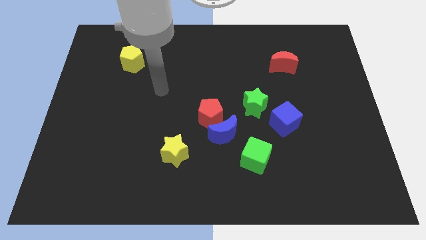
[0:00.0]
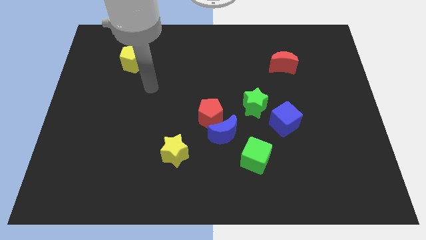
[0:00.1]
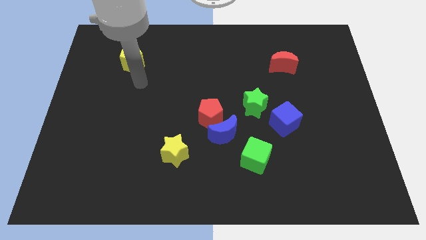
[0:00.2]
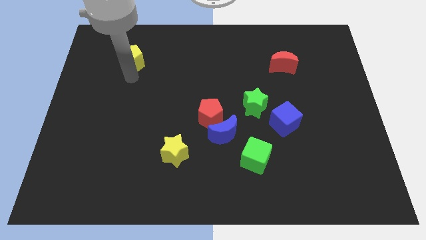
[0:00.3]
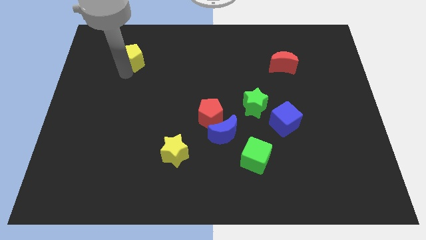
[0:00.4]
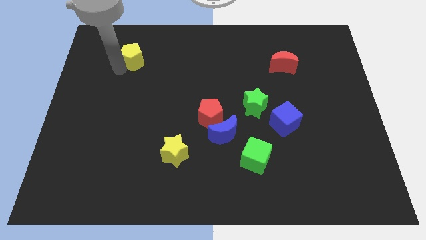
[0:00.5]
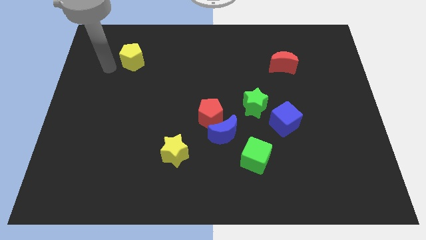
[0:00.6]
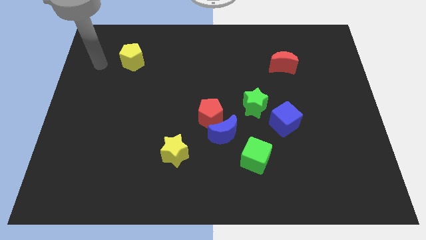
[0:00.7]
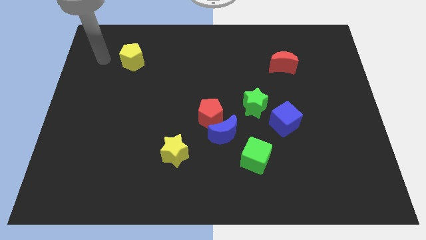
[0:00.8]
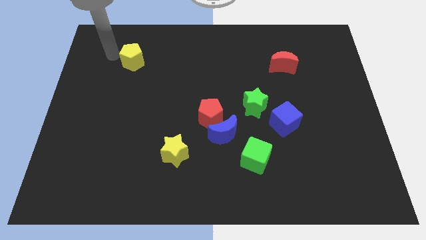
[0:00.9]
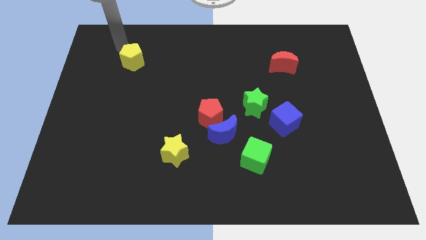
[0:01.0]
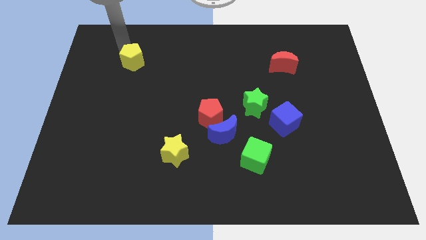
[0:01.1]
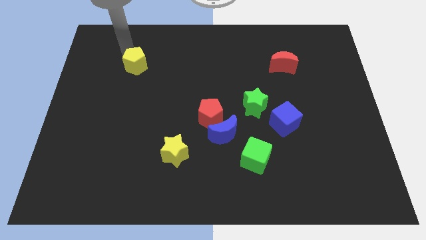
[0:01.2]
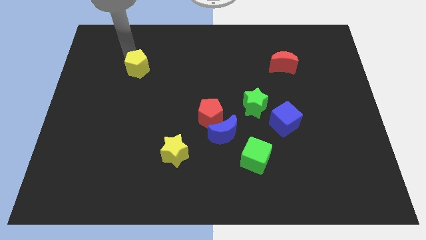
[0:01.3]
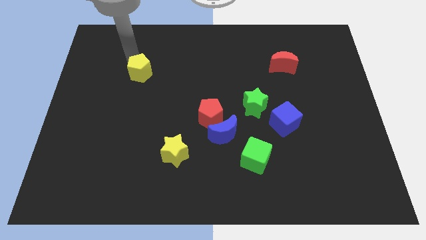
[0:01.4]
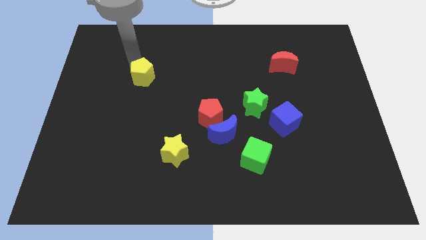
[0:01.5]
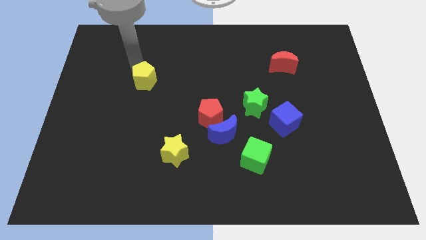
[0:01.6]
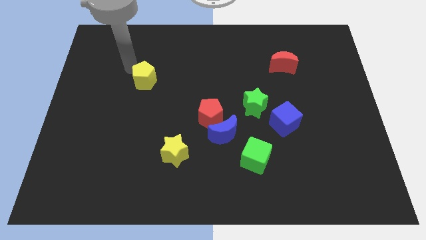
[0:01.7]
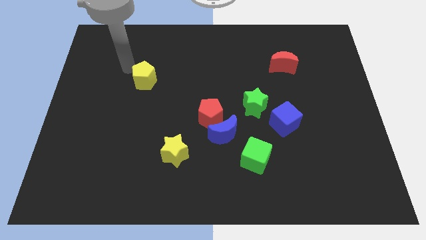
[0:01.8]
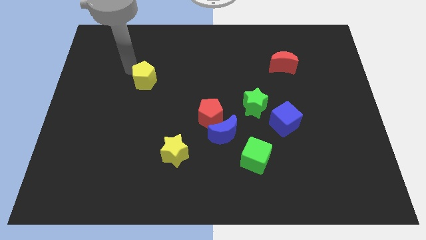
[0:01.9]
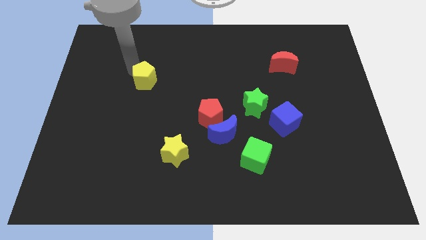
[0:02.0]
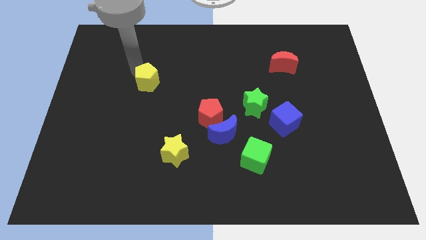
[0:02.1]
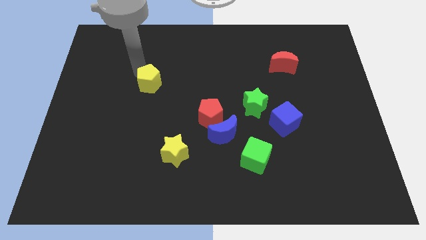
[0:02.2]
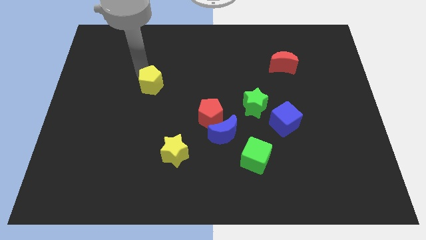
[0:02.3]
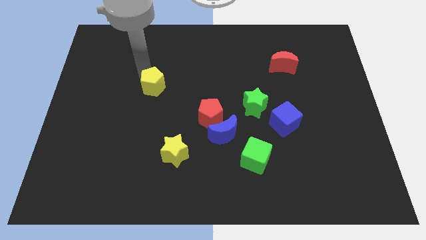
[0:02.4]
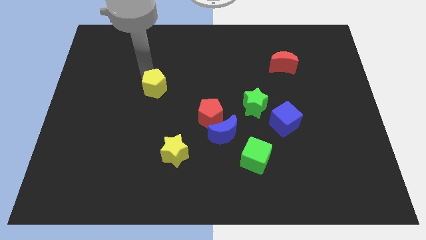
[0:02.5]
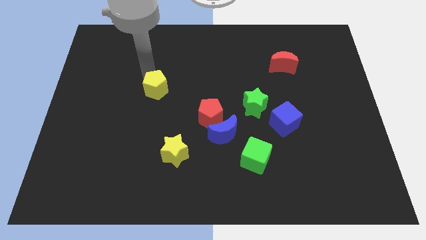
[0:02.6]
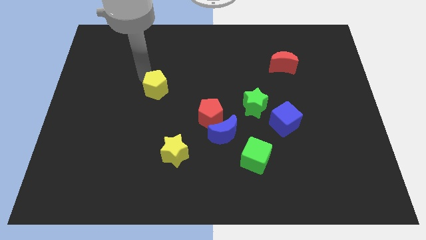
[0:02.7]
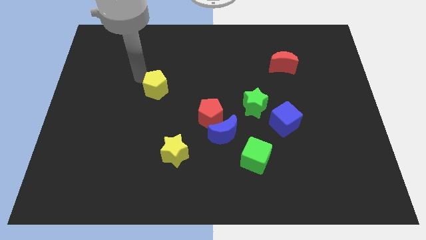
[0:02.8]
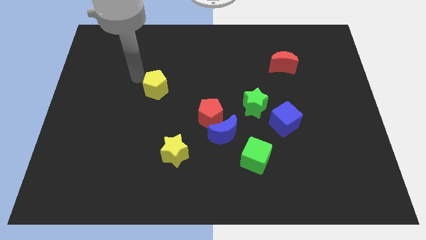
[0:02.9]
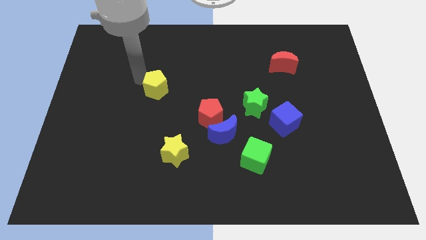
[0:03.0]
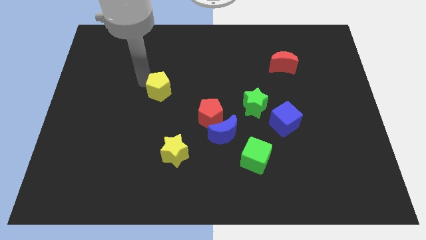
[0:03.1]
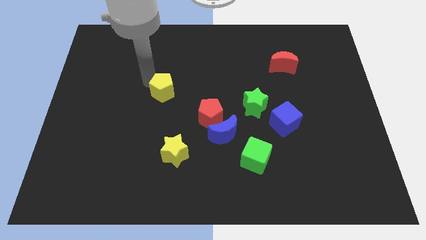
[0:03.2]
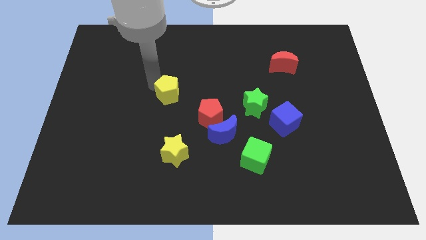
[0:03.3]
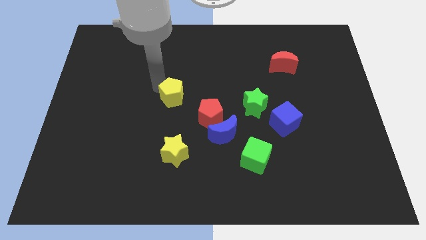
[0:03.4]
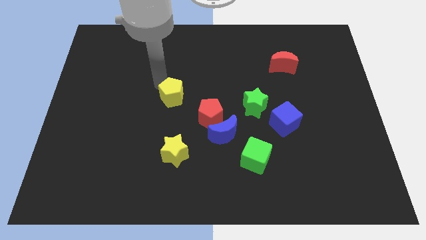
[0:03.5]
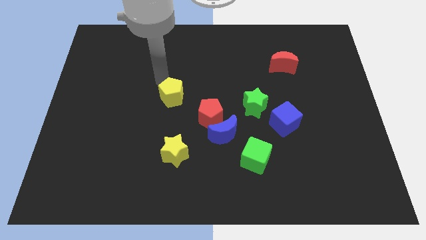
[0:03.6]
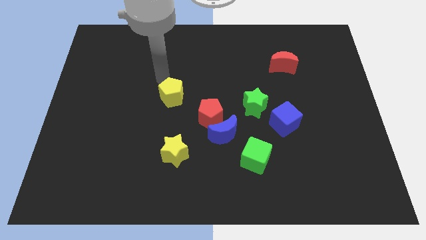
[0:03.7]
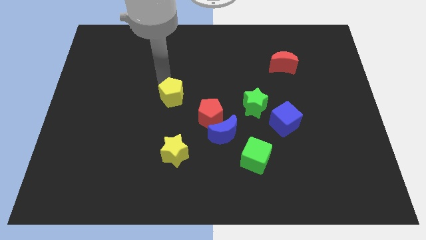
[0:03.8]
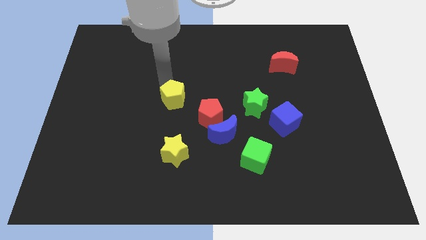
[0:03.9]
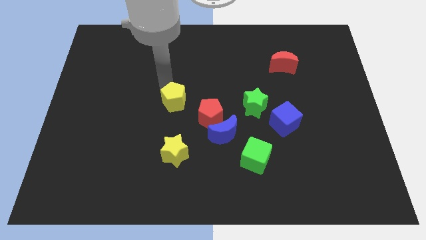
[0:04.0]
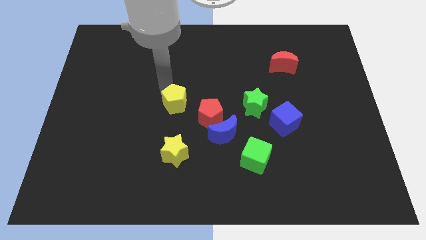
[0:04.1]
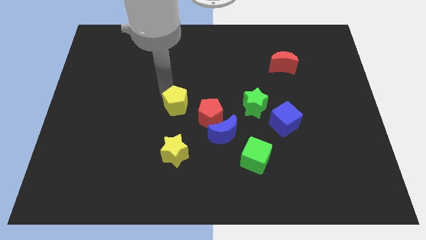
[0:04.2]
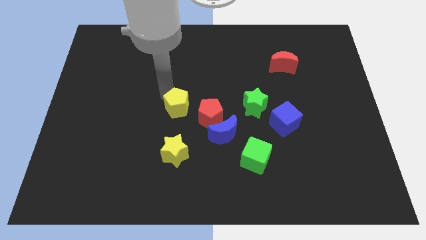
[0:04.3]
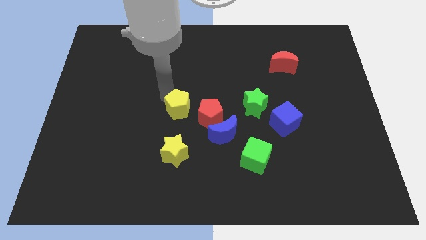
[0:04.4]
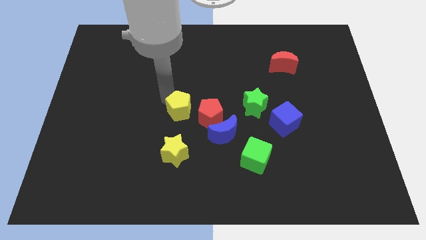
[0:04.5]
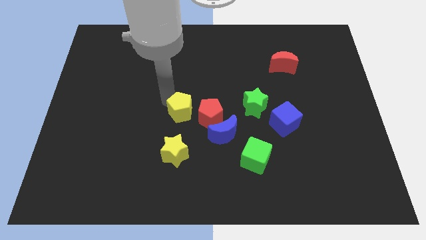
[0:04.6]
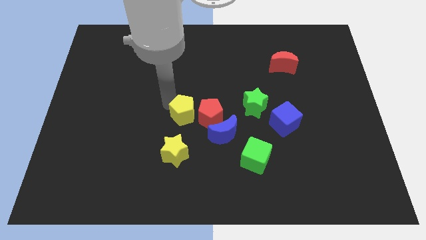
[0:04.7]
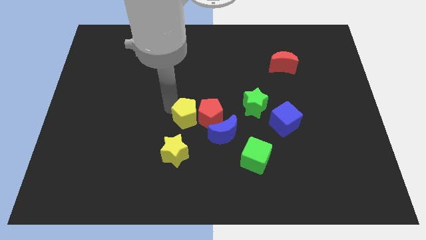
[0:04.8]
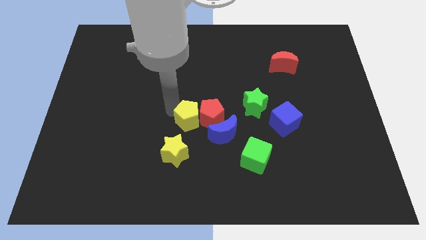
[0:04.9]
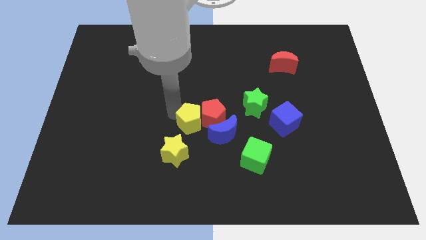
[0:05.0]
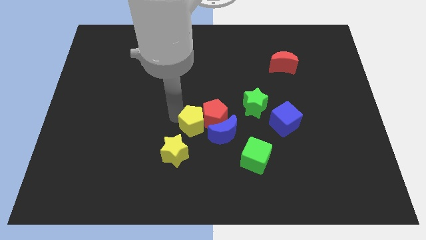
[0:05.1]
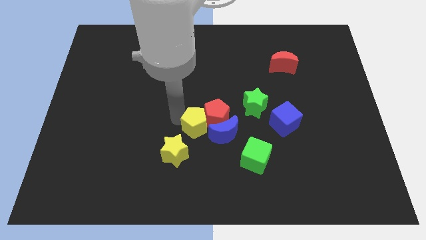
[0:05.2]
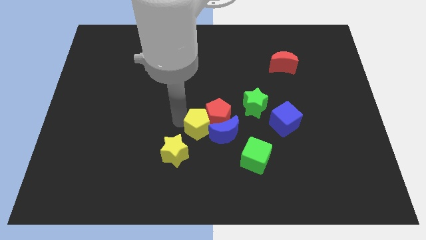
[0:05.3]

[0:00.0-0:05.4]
push the yellow pentagon next to the blue moon

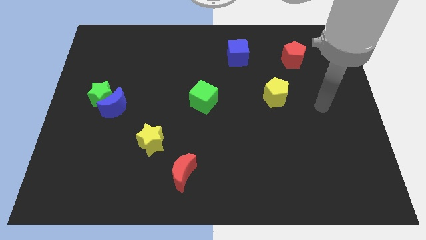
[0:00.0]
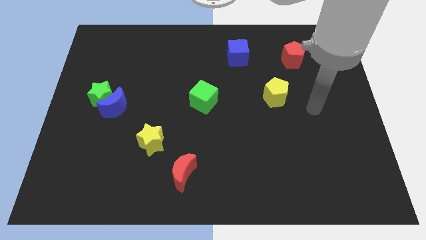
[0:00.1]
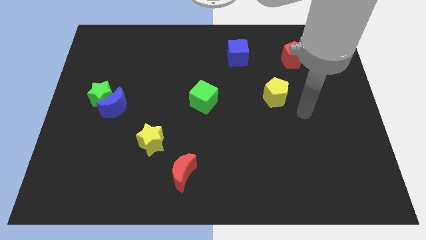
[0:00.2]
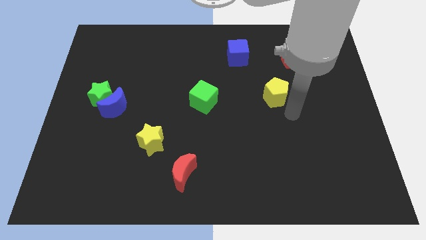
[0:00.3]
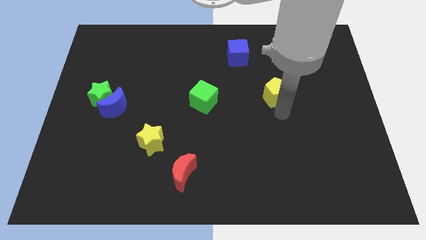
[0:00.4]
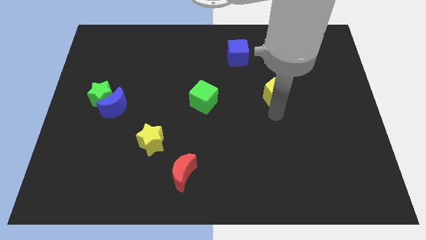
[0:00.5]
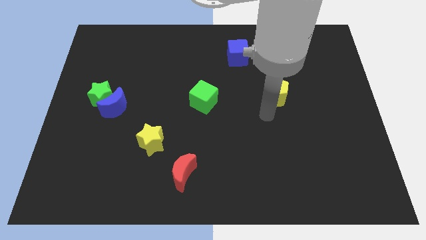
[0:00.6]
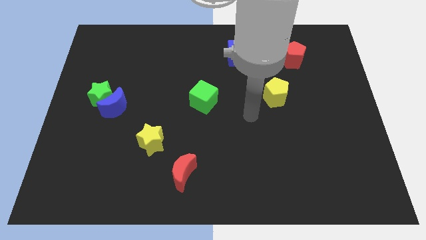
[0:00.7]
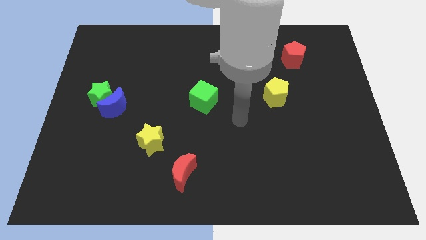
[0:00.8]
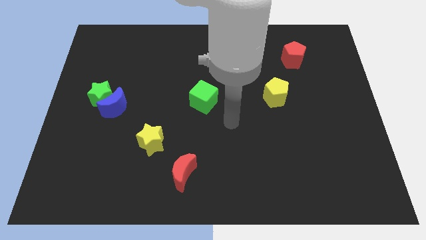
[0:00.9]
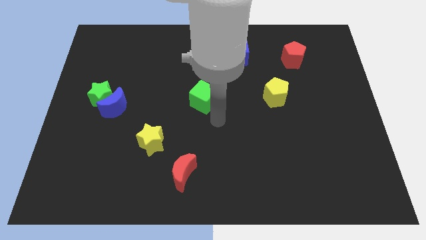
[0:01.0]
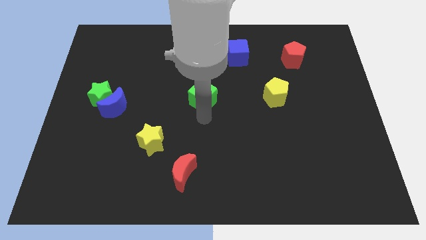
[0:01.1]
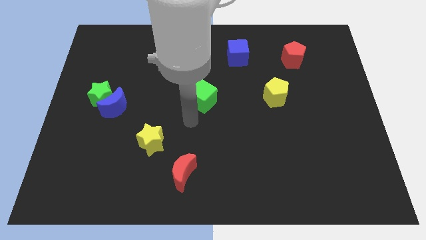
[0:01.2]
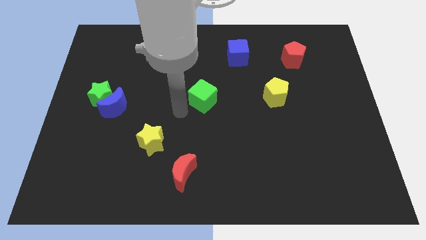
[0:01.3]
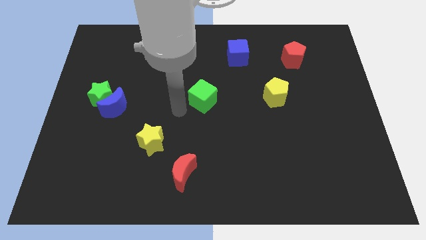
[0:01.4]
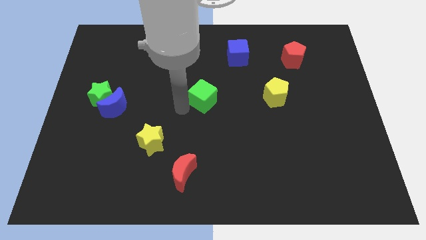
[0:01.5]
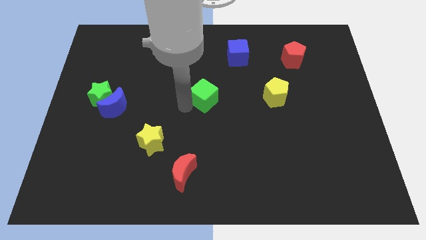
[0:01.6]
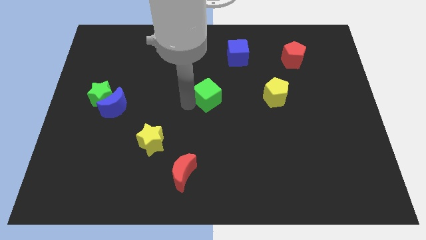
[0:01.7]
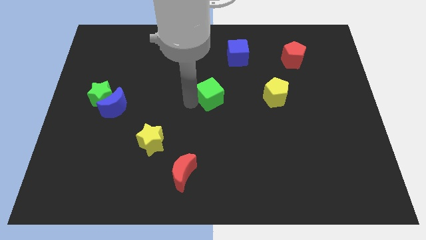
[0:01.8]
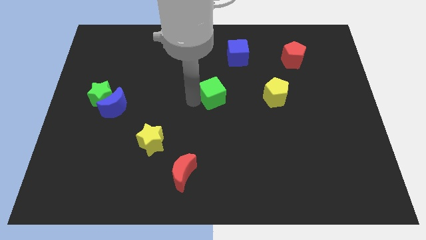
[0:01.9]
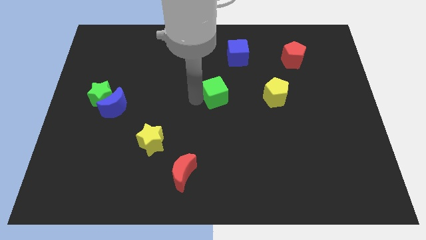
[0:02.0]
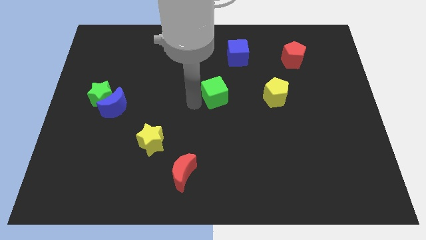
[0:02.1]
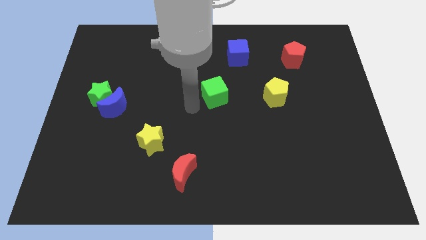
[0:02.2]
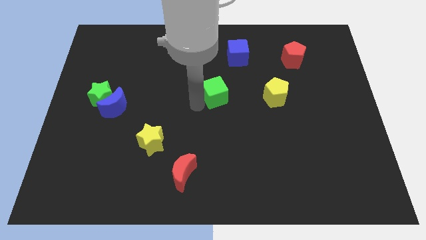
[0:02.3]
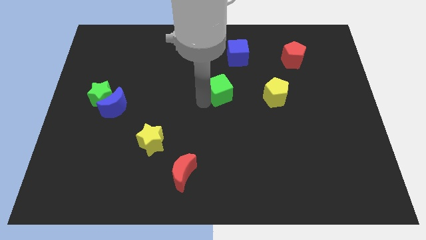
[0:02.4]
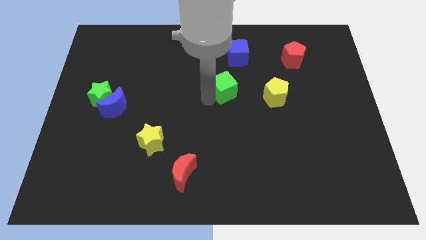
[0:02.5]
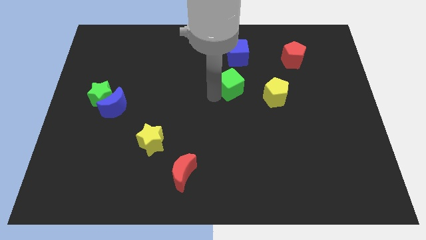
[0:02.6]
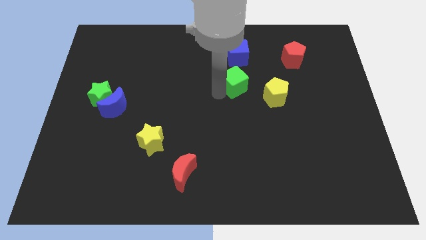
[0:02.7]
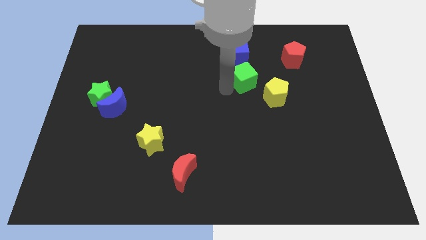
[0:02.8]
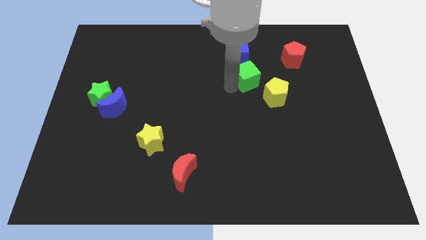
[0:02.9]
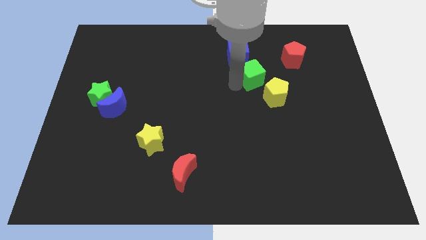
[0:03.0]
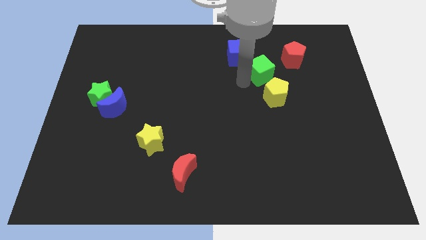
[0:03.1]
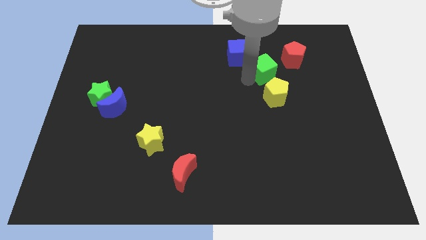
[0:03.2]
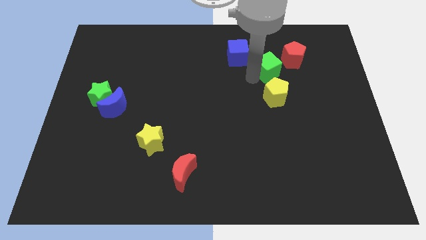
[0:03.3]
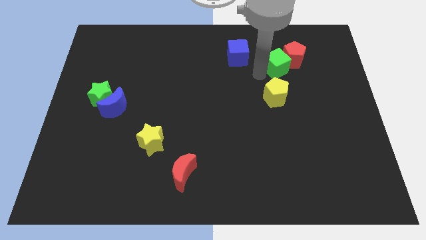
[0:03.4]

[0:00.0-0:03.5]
put the green cube towards the red pentagon
